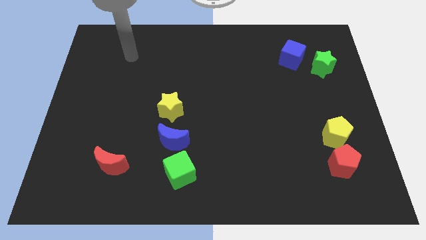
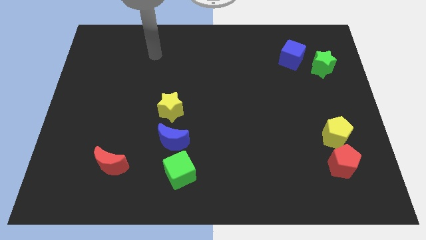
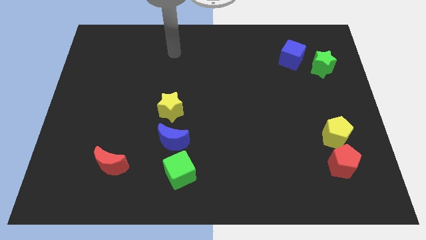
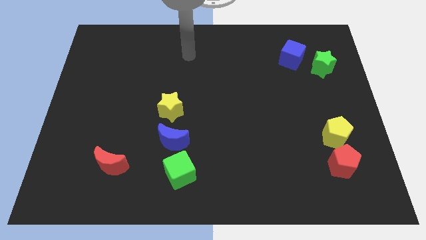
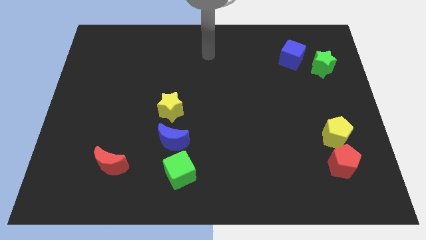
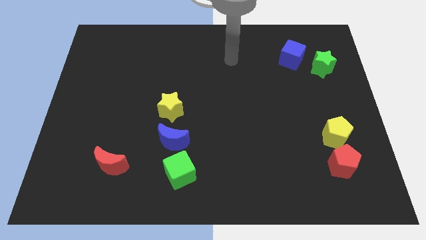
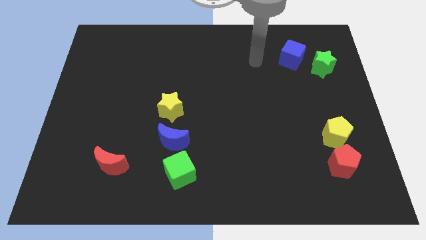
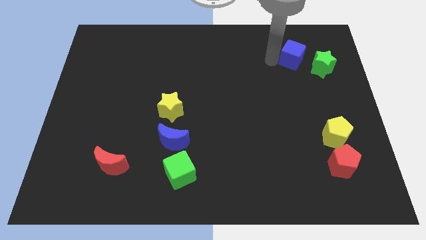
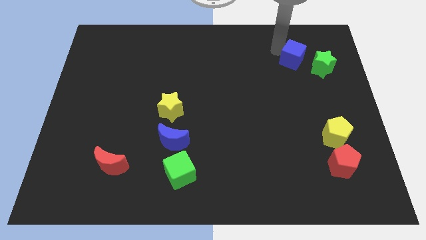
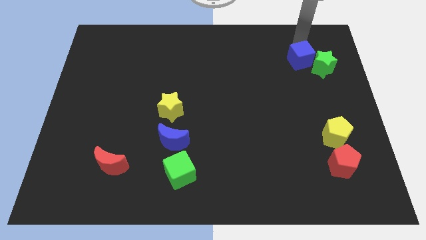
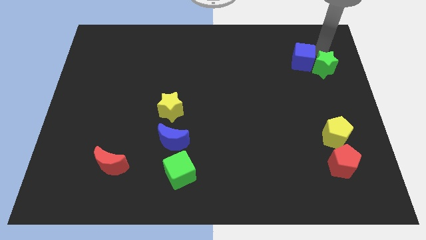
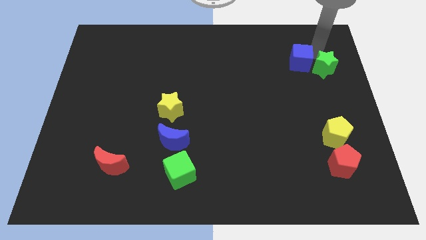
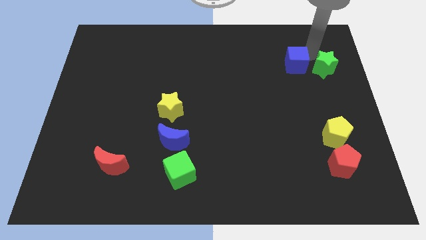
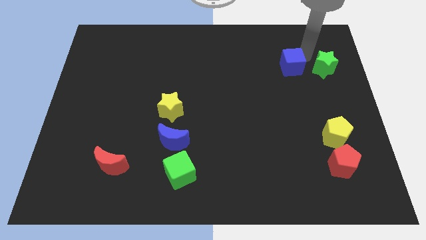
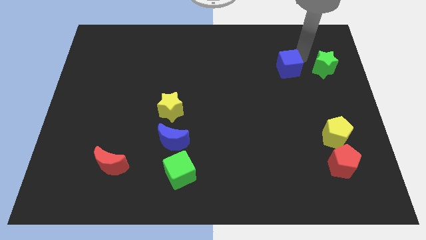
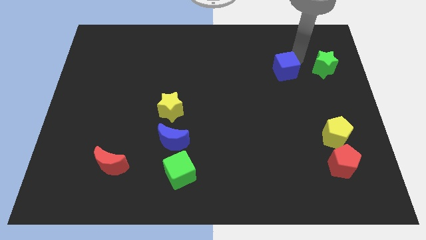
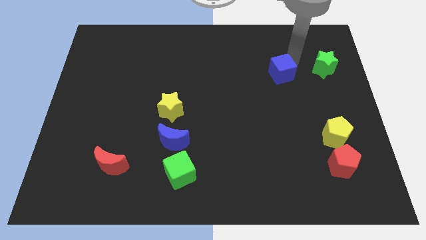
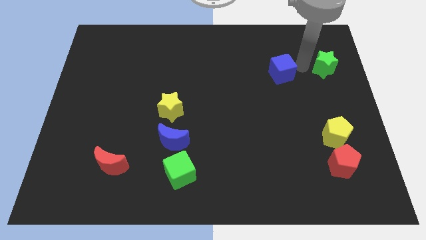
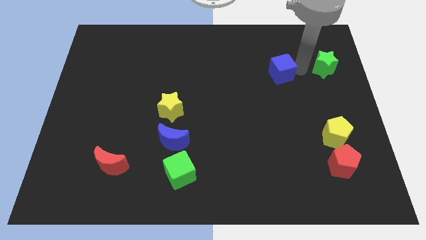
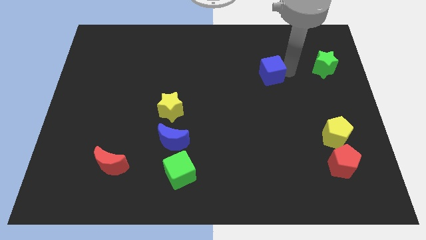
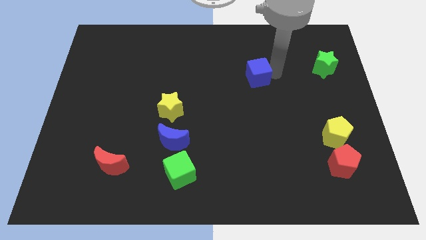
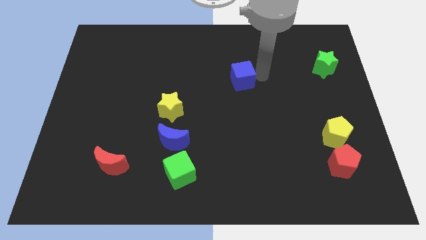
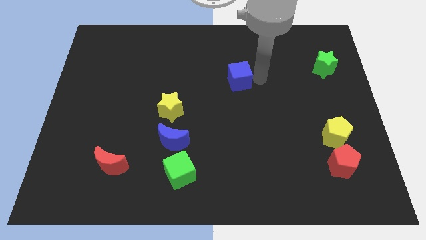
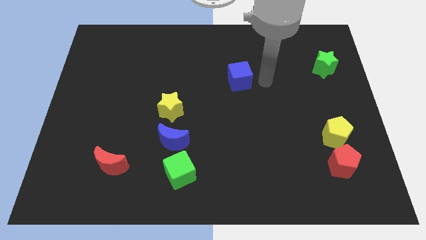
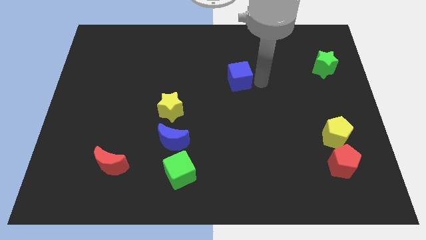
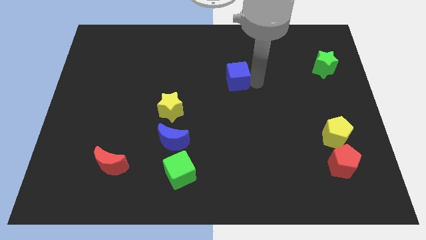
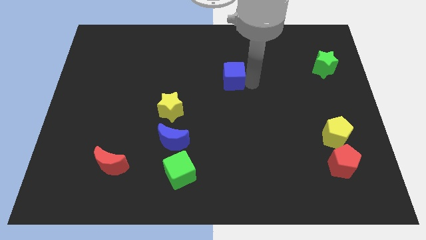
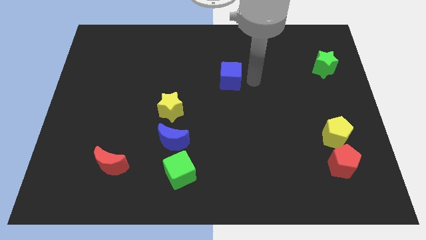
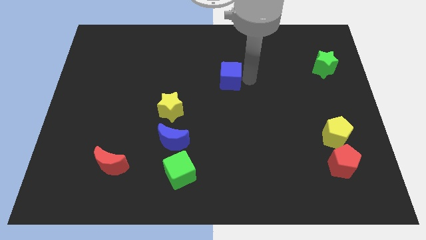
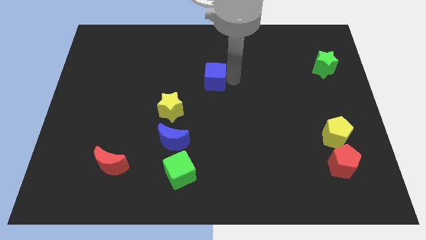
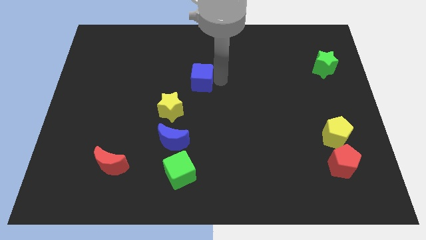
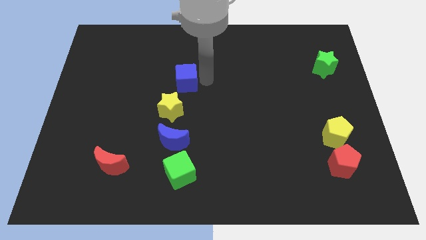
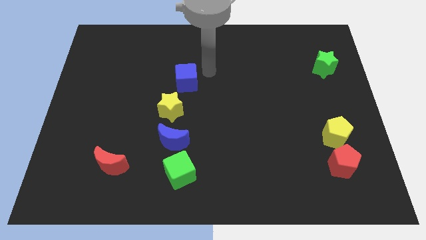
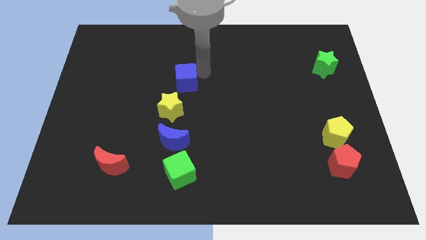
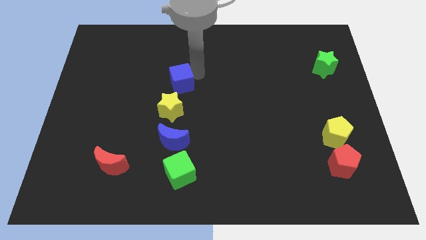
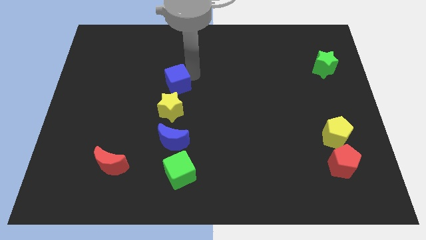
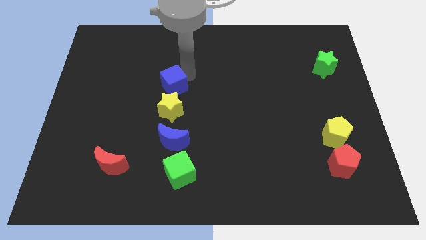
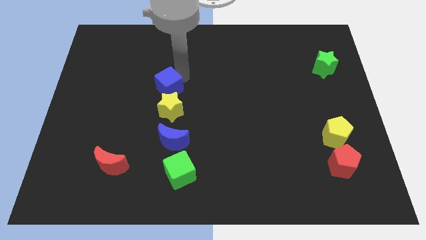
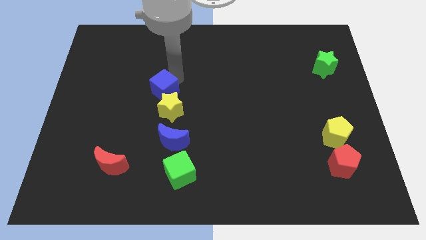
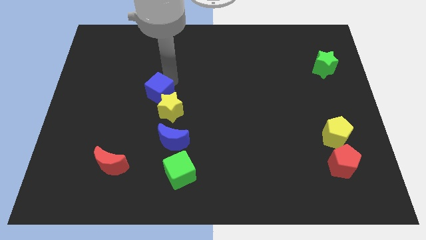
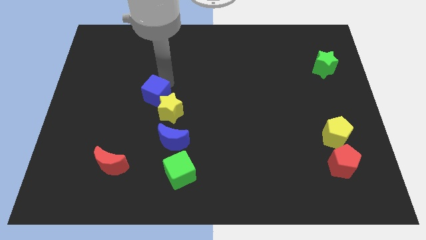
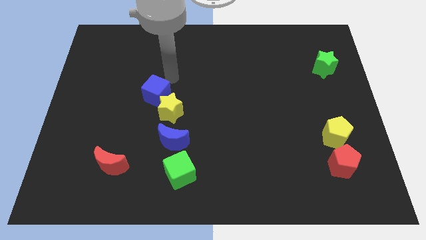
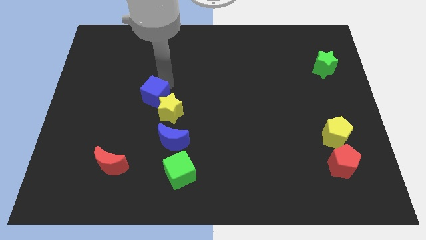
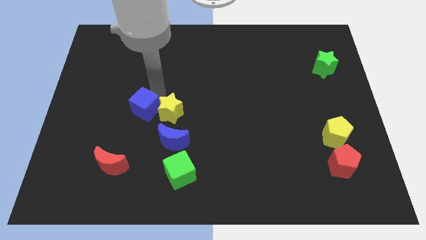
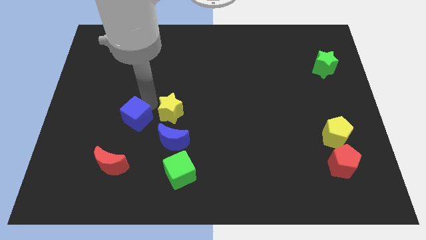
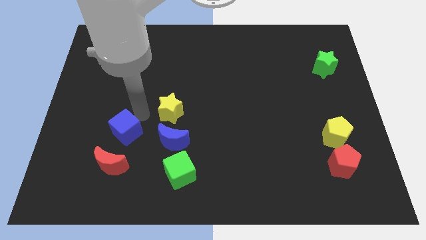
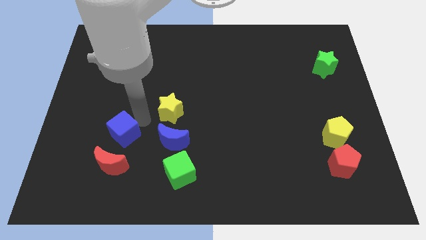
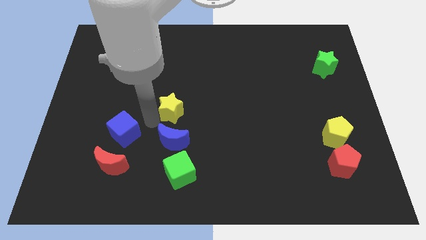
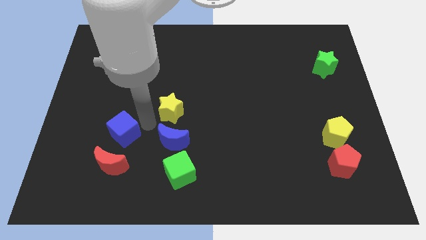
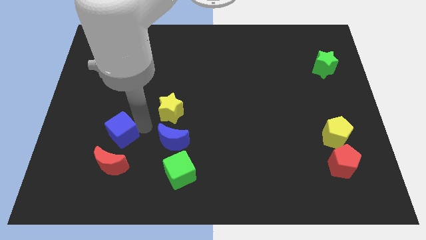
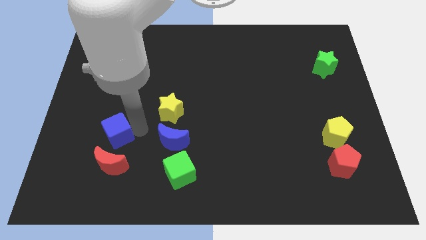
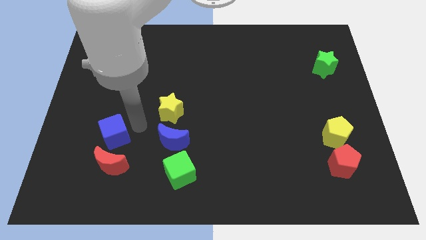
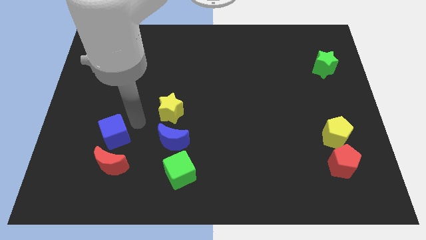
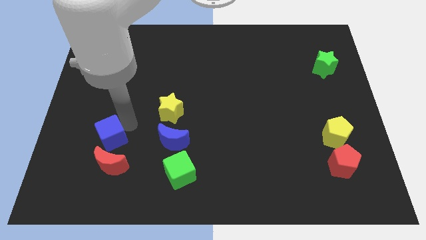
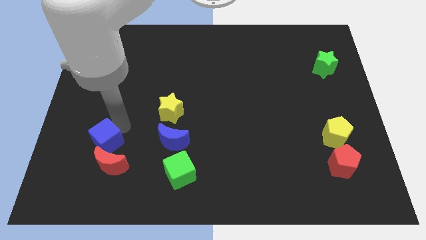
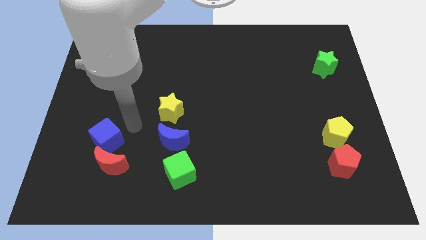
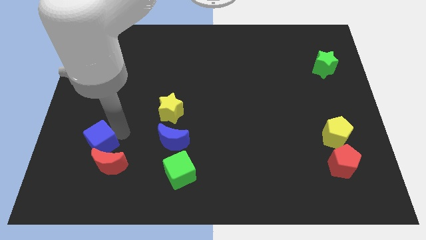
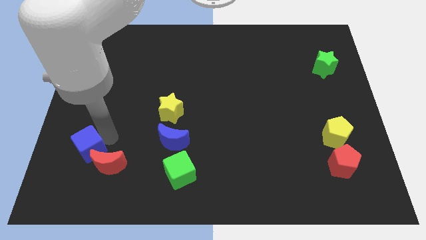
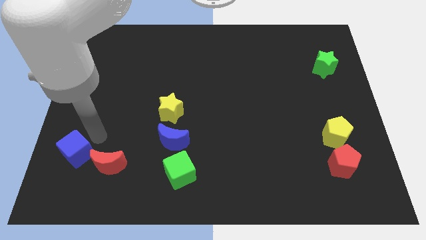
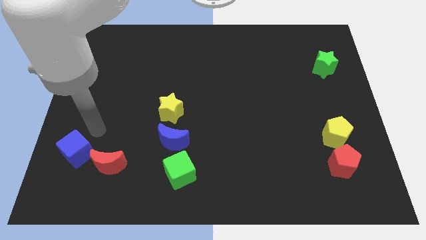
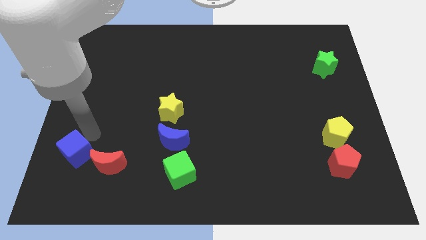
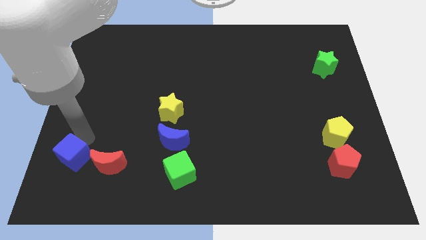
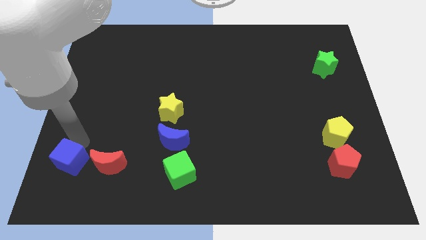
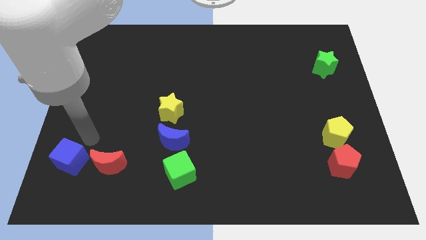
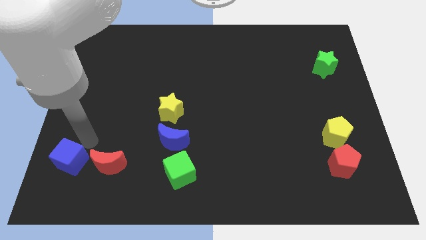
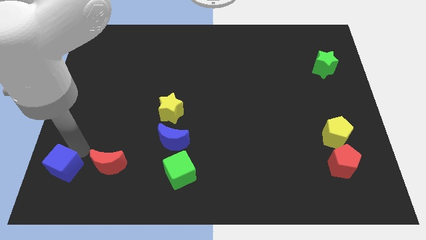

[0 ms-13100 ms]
move the blue cube to the bottom left of the board
